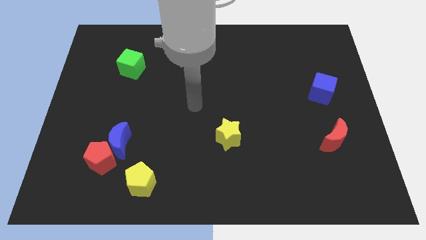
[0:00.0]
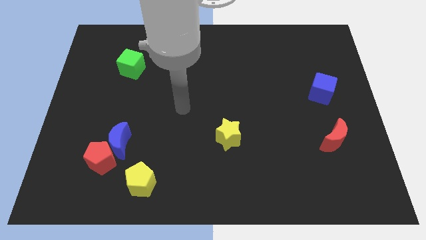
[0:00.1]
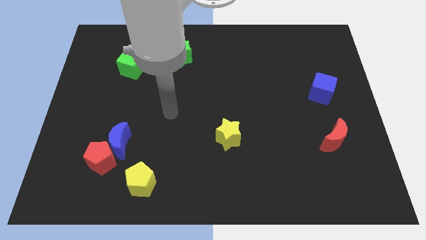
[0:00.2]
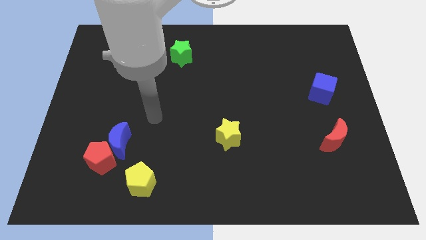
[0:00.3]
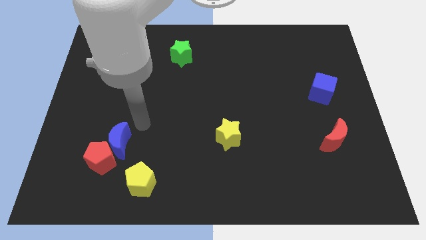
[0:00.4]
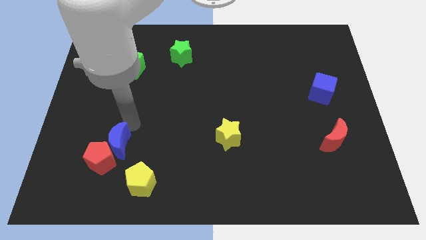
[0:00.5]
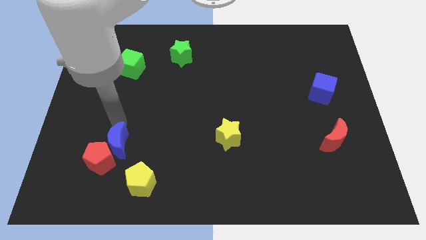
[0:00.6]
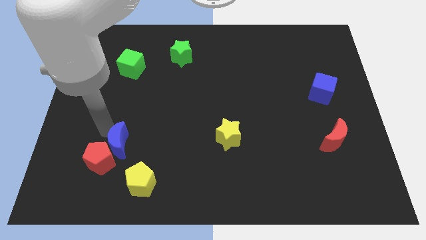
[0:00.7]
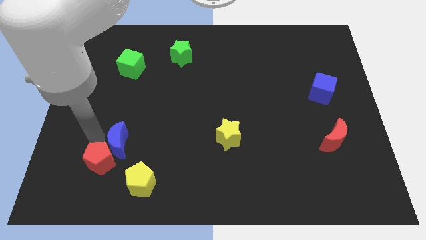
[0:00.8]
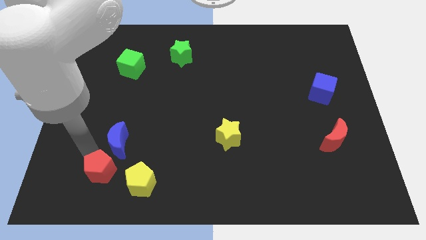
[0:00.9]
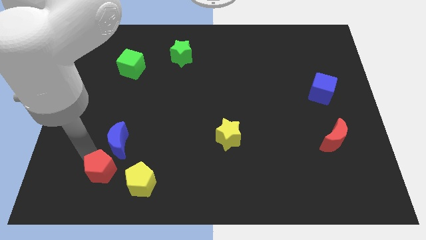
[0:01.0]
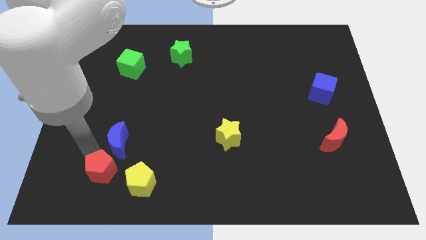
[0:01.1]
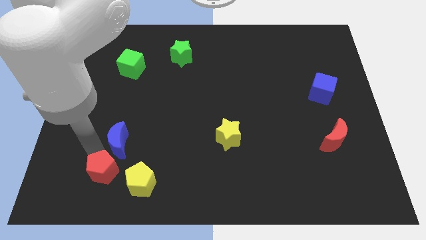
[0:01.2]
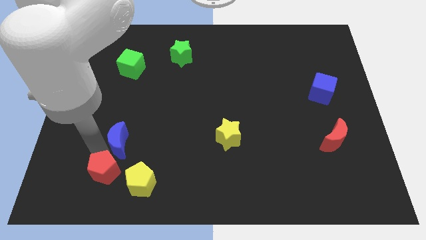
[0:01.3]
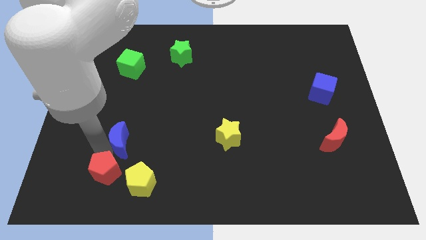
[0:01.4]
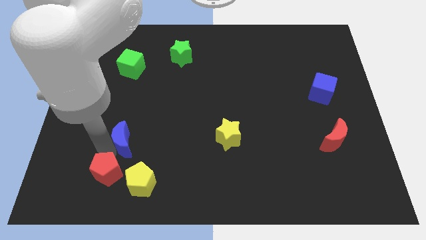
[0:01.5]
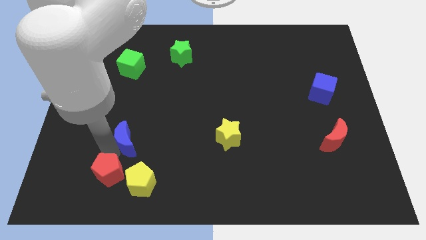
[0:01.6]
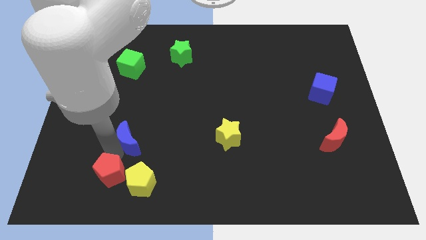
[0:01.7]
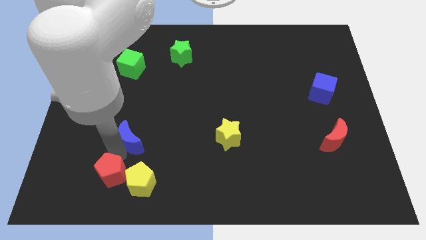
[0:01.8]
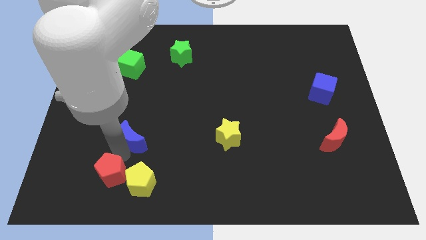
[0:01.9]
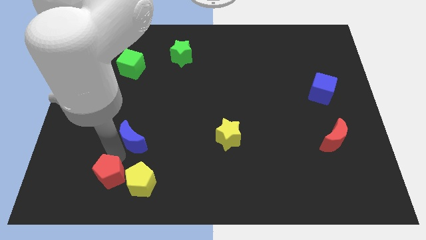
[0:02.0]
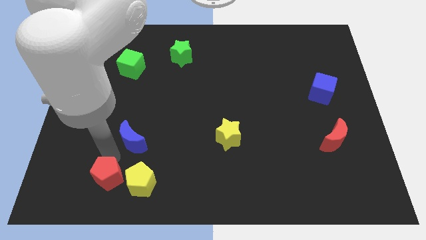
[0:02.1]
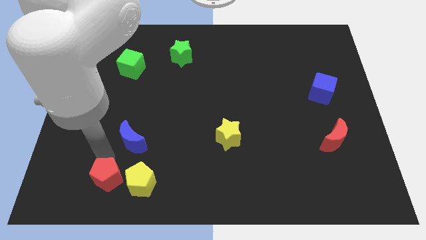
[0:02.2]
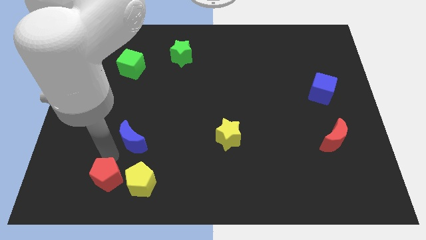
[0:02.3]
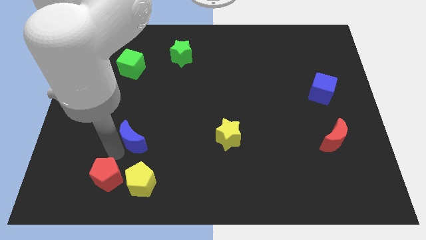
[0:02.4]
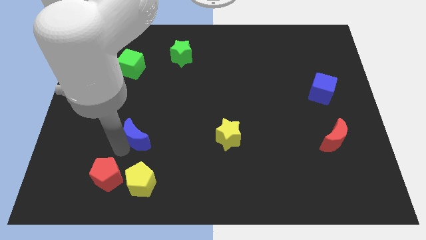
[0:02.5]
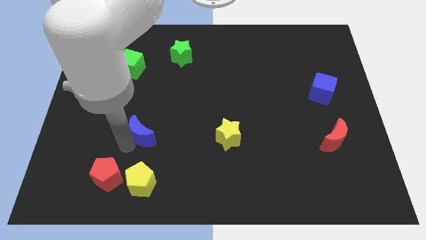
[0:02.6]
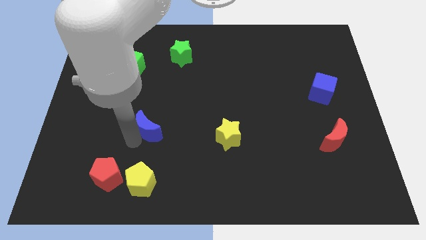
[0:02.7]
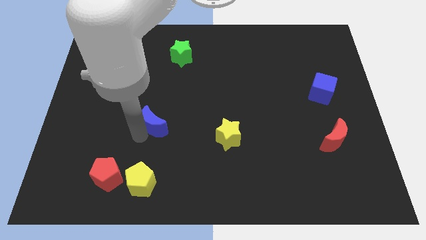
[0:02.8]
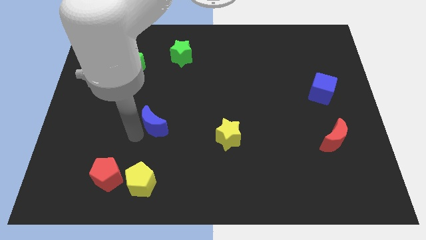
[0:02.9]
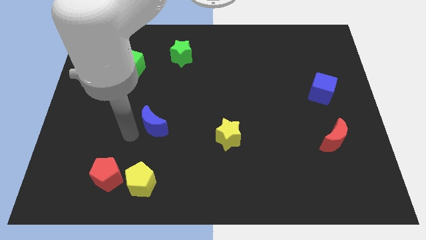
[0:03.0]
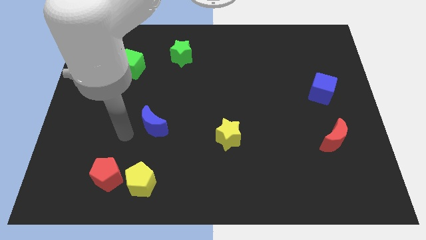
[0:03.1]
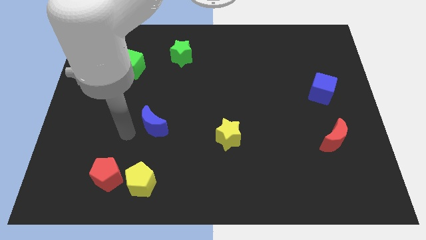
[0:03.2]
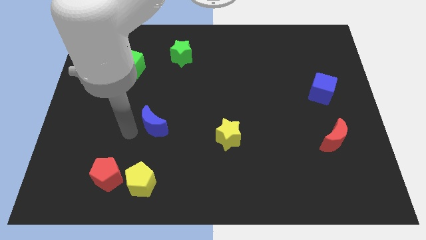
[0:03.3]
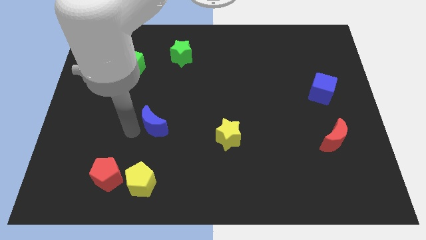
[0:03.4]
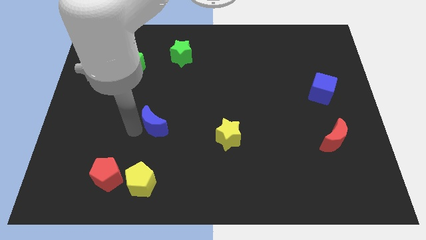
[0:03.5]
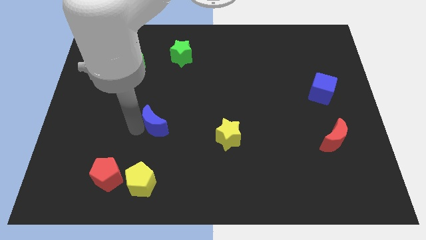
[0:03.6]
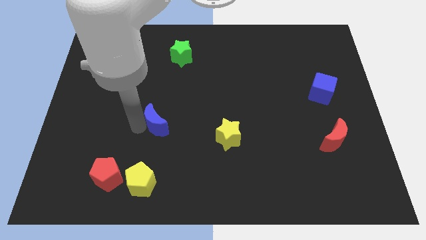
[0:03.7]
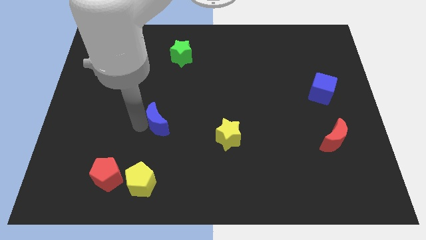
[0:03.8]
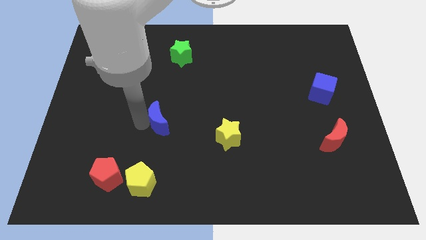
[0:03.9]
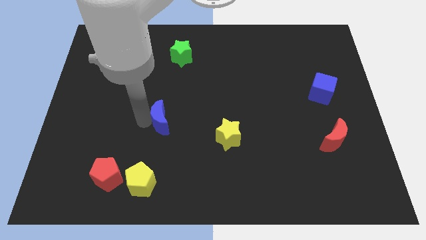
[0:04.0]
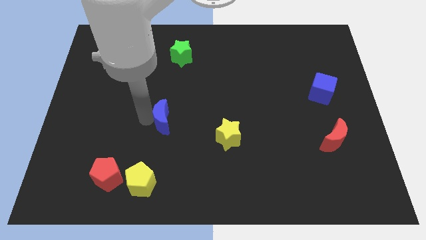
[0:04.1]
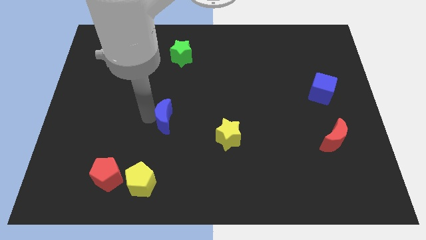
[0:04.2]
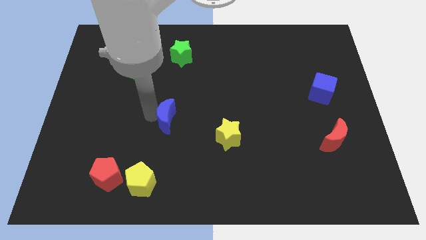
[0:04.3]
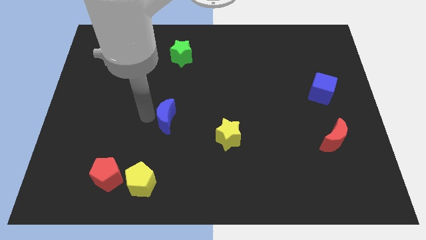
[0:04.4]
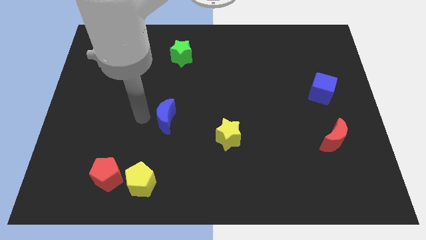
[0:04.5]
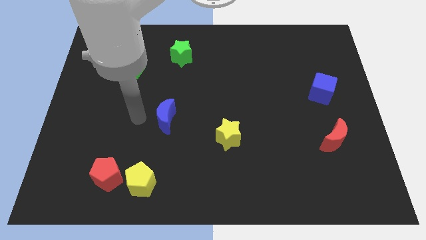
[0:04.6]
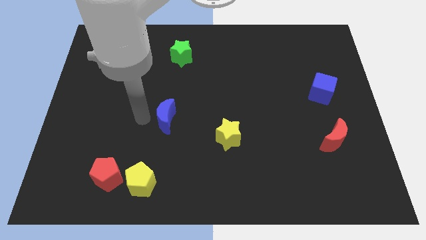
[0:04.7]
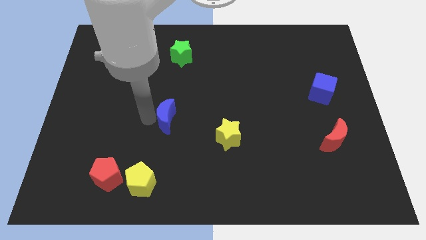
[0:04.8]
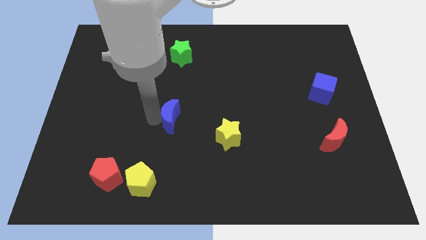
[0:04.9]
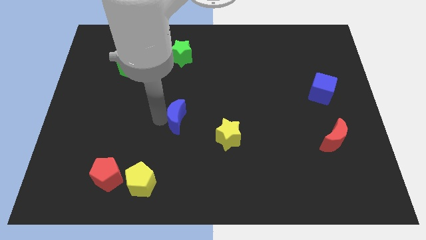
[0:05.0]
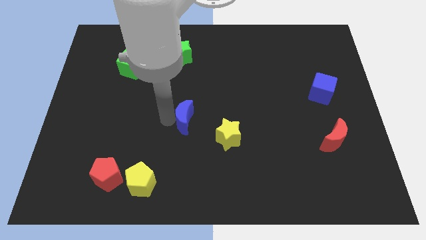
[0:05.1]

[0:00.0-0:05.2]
push the blue moon to the top left of the yellow star

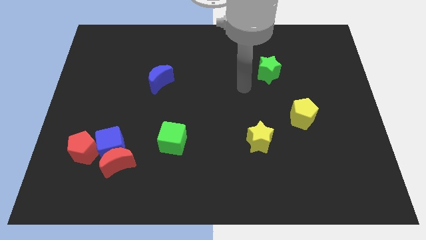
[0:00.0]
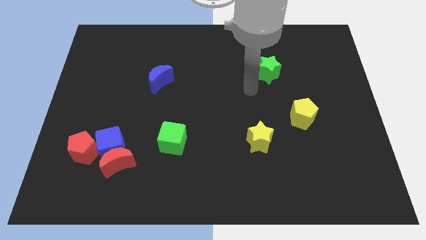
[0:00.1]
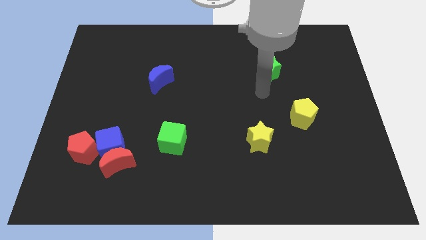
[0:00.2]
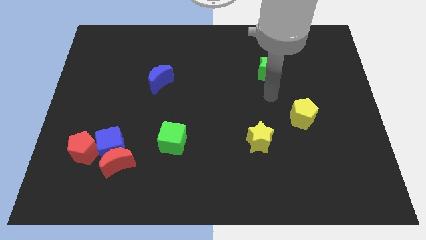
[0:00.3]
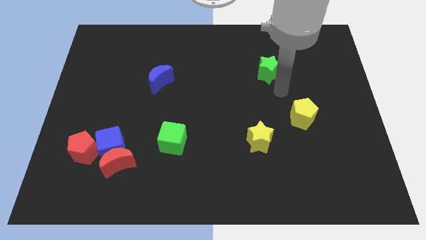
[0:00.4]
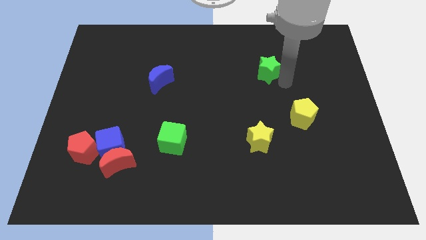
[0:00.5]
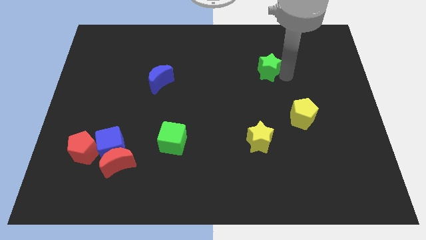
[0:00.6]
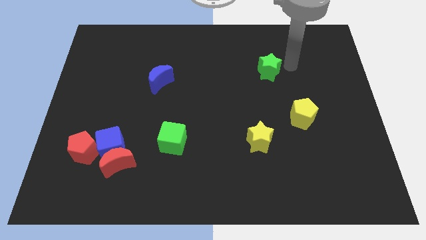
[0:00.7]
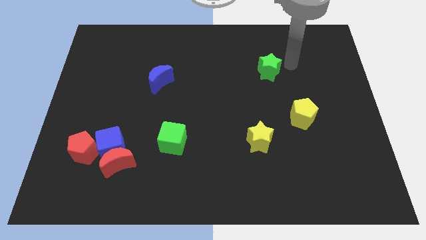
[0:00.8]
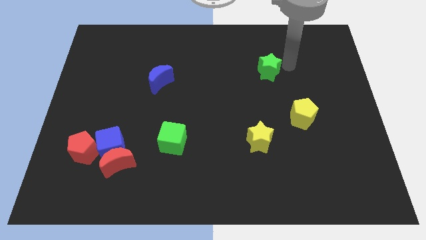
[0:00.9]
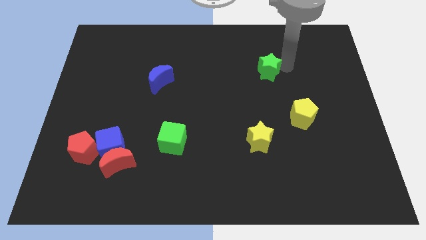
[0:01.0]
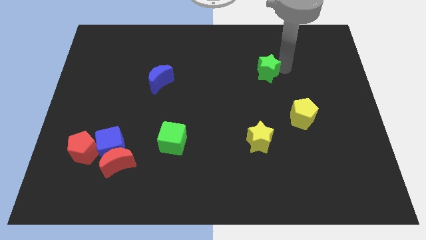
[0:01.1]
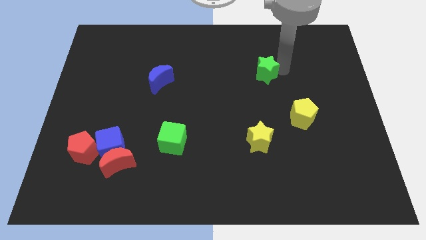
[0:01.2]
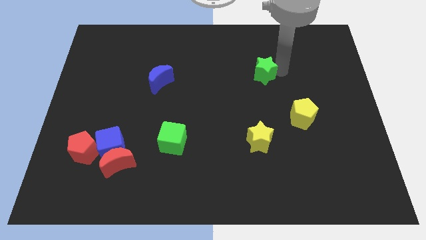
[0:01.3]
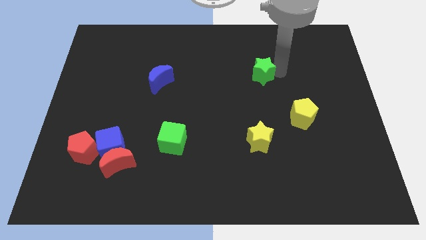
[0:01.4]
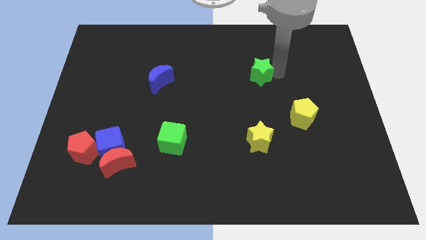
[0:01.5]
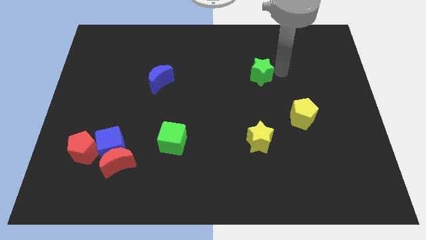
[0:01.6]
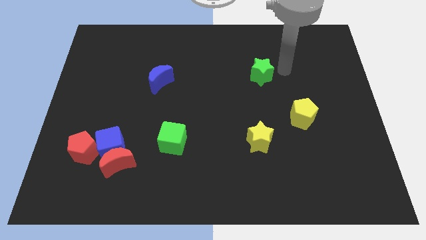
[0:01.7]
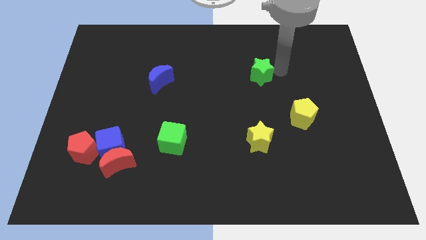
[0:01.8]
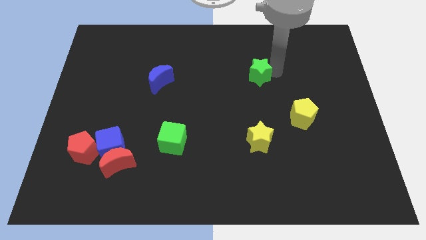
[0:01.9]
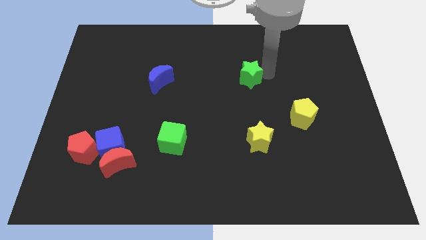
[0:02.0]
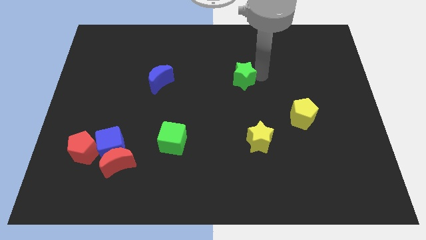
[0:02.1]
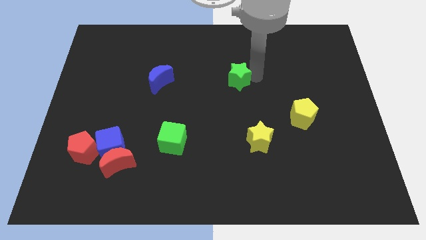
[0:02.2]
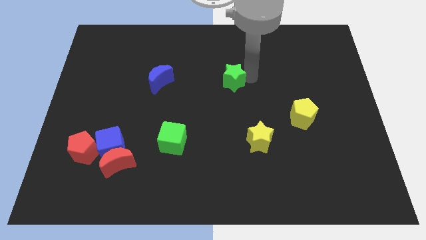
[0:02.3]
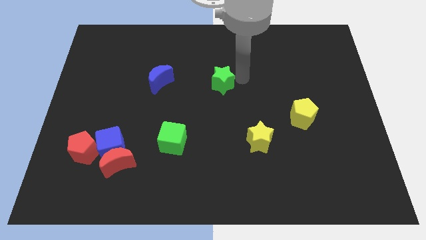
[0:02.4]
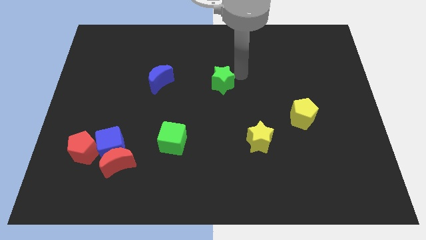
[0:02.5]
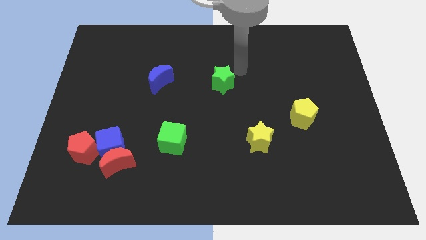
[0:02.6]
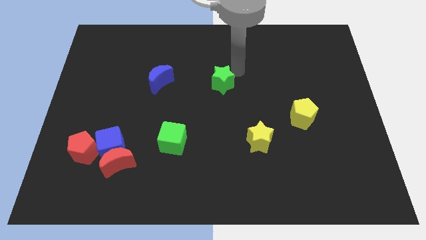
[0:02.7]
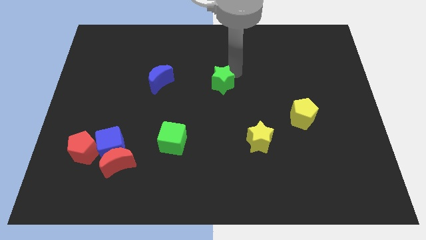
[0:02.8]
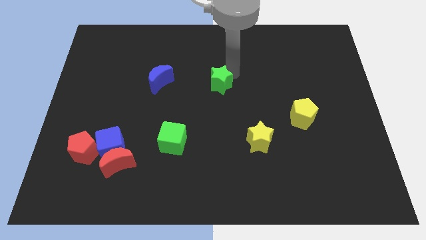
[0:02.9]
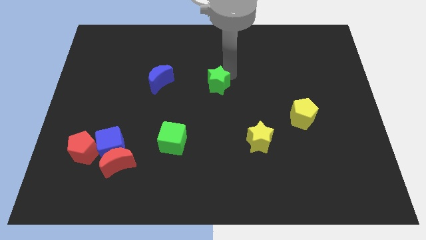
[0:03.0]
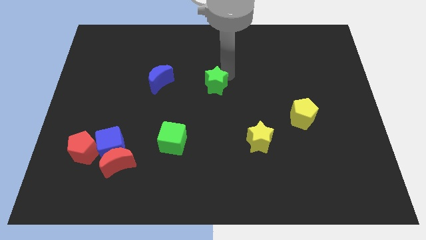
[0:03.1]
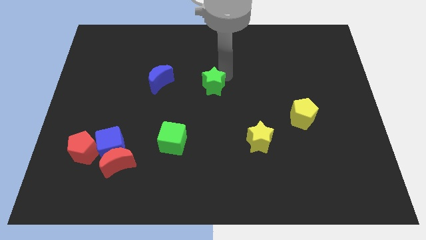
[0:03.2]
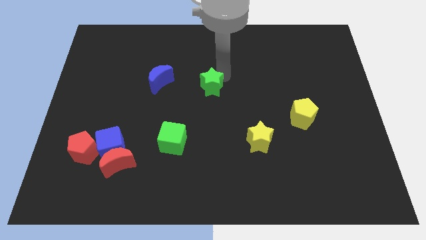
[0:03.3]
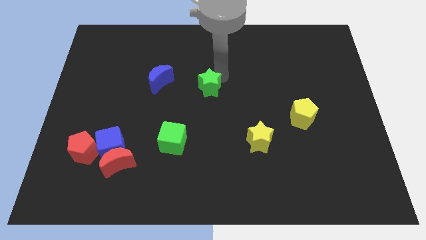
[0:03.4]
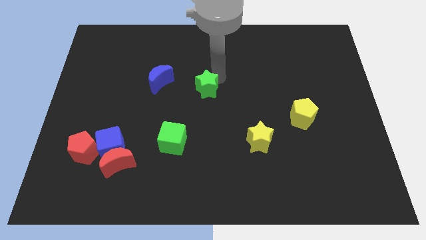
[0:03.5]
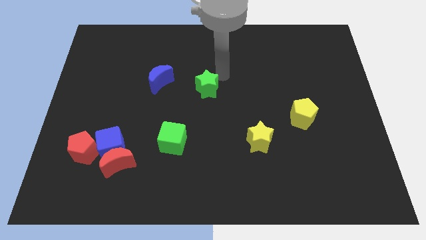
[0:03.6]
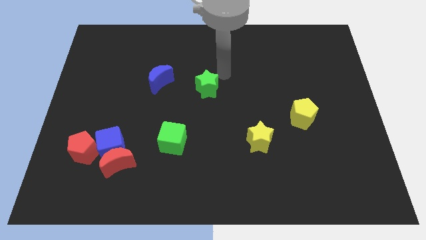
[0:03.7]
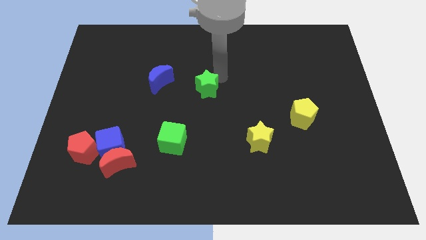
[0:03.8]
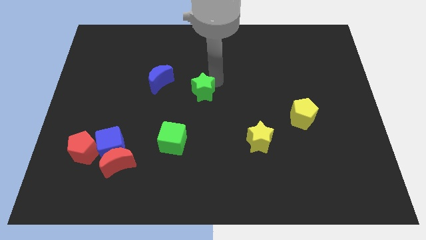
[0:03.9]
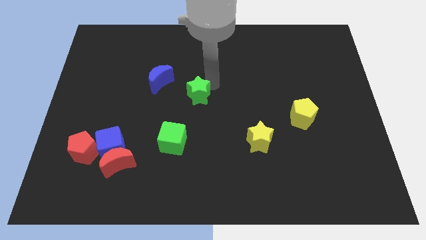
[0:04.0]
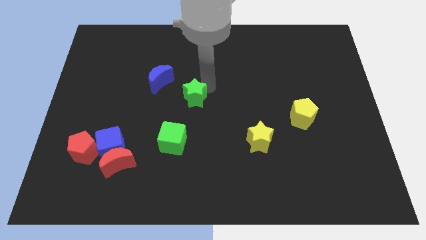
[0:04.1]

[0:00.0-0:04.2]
slide the green star to the top of the green cube
